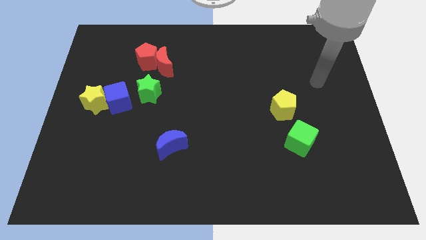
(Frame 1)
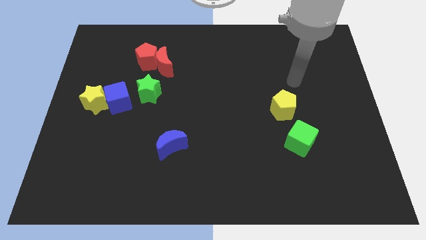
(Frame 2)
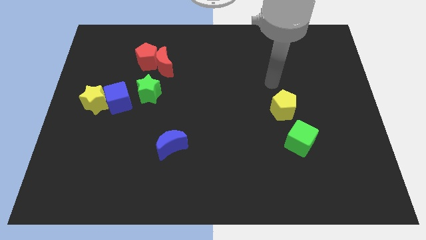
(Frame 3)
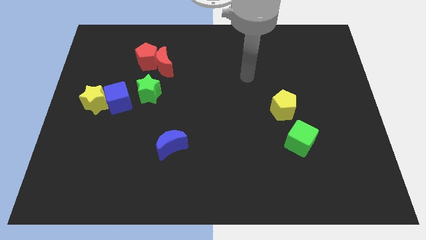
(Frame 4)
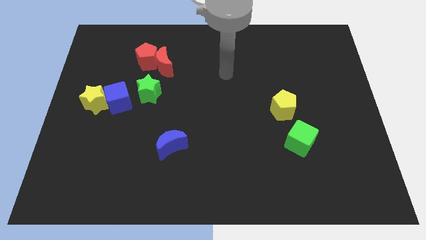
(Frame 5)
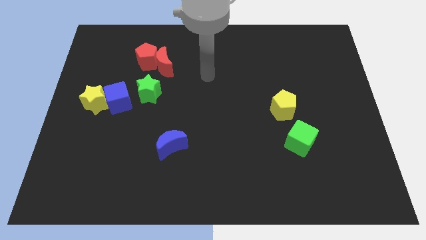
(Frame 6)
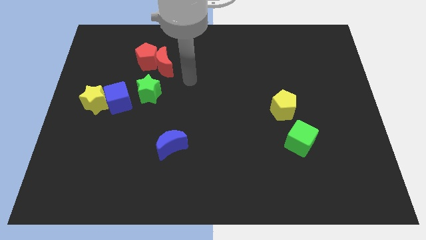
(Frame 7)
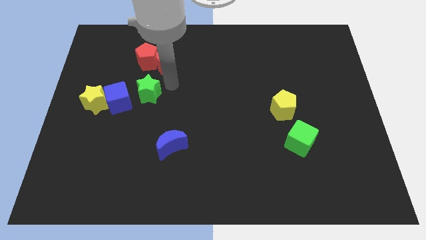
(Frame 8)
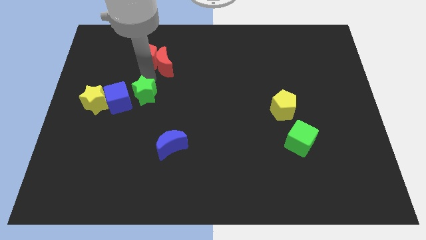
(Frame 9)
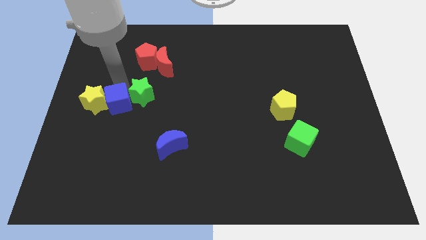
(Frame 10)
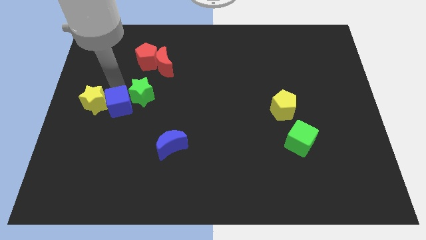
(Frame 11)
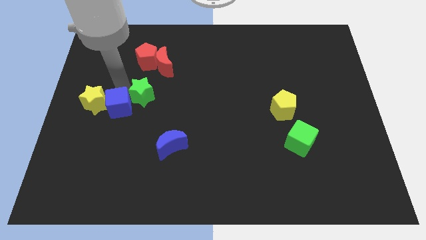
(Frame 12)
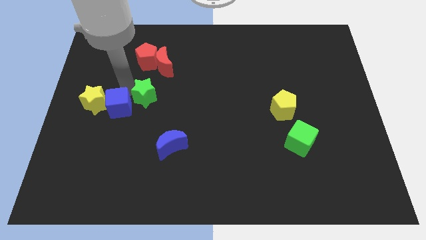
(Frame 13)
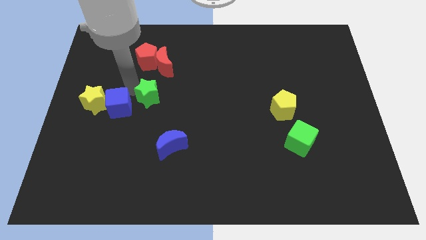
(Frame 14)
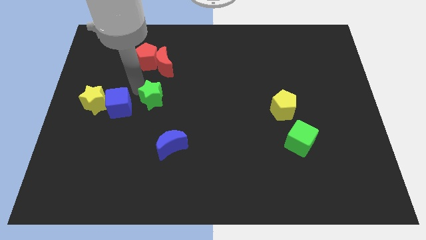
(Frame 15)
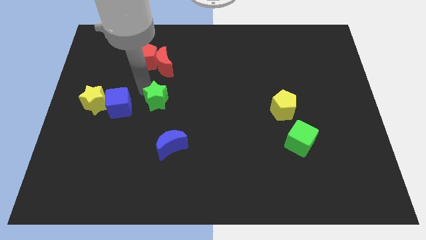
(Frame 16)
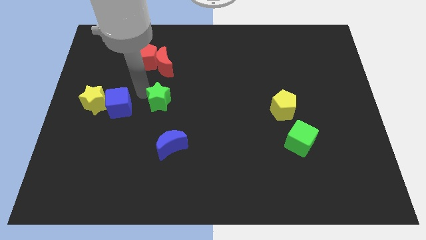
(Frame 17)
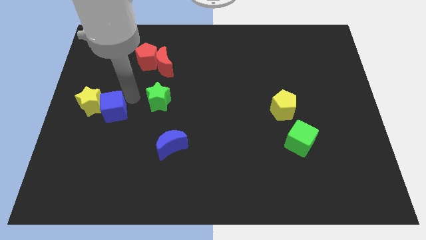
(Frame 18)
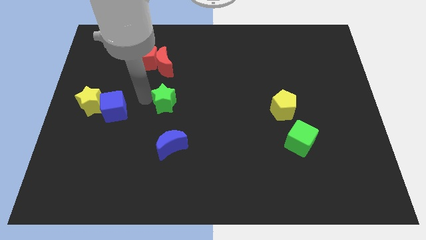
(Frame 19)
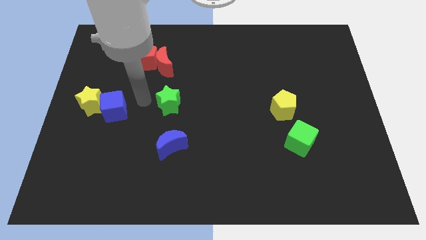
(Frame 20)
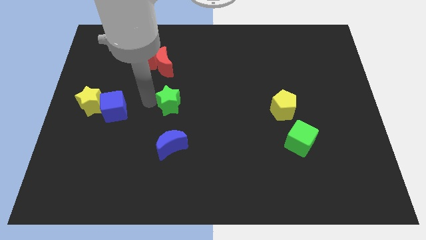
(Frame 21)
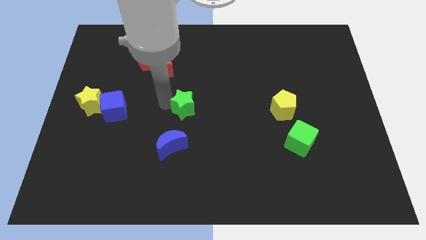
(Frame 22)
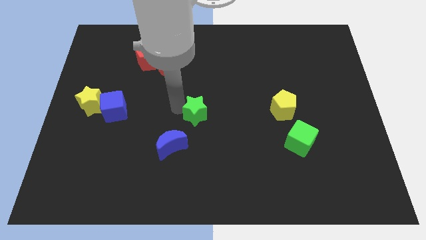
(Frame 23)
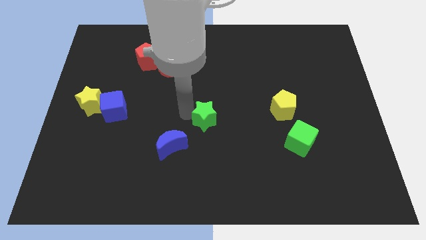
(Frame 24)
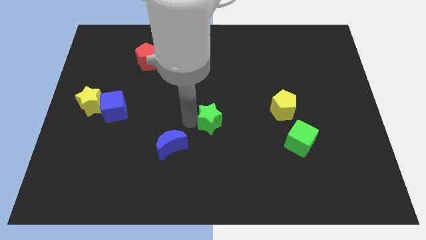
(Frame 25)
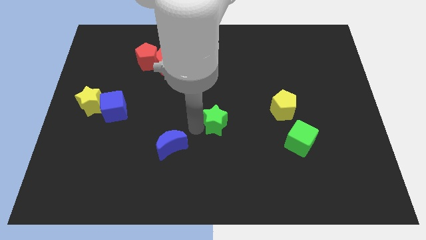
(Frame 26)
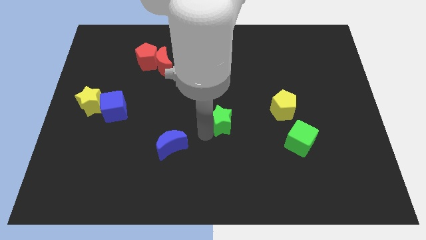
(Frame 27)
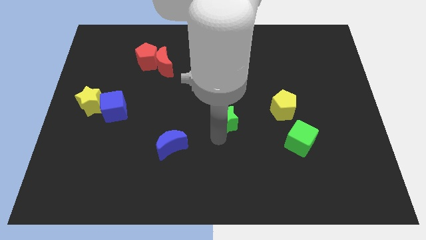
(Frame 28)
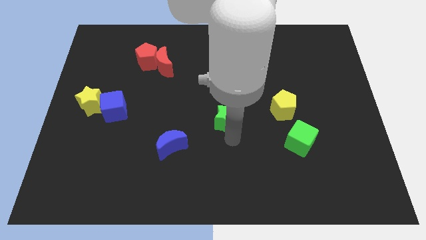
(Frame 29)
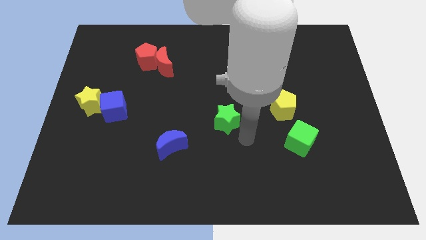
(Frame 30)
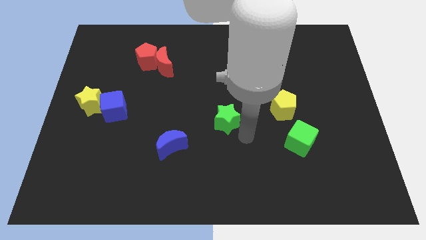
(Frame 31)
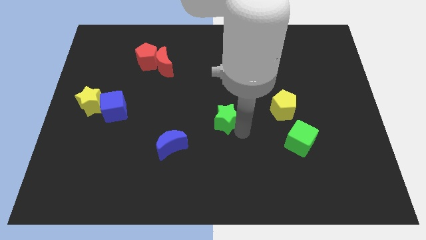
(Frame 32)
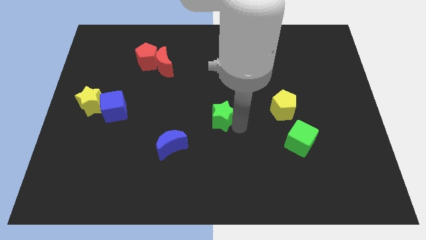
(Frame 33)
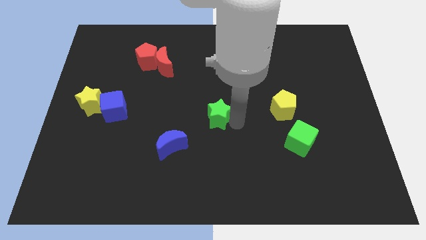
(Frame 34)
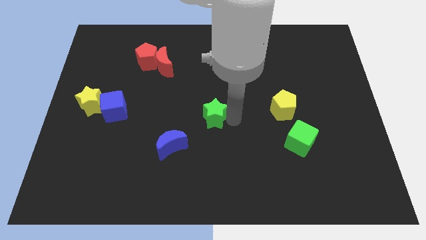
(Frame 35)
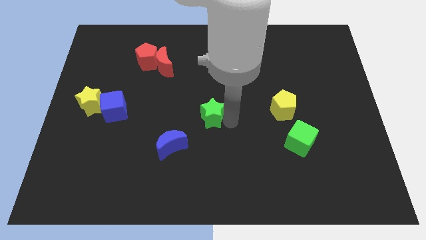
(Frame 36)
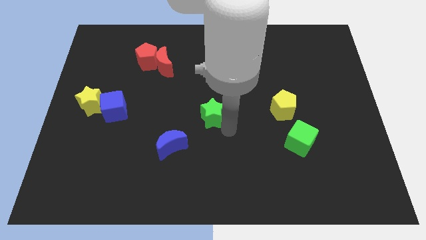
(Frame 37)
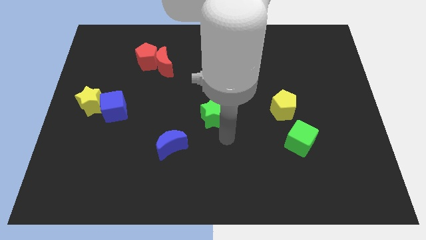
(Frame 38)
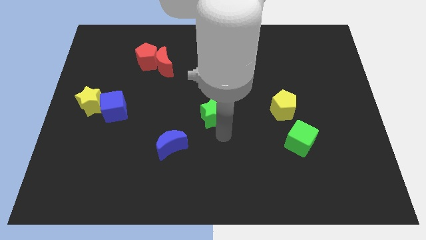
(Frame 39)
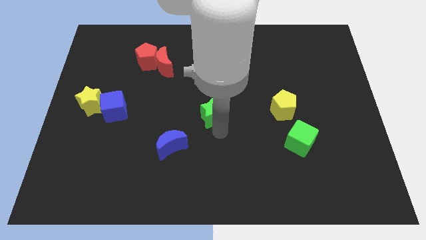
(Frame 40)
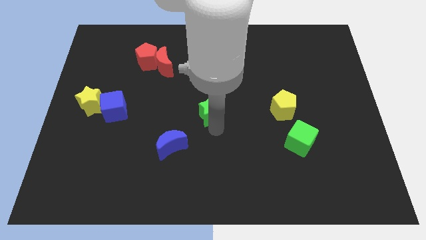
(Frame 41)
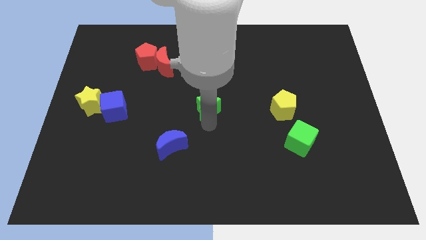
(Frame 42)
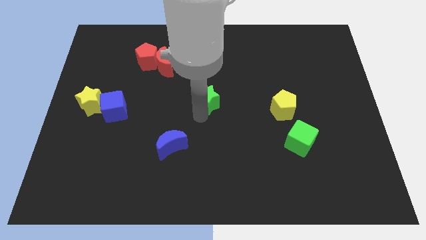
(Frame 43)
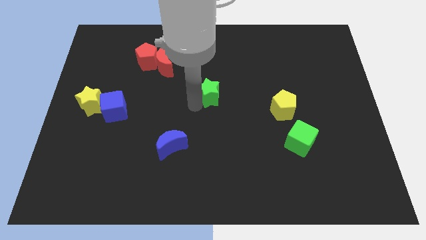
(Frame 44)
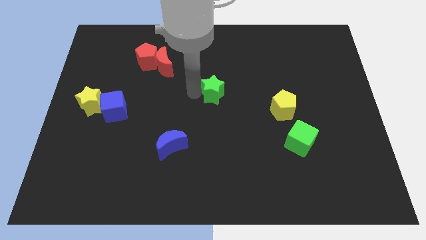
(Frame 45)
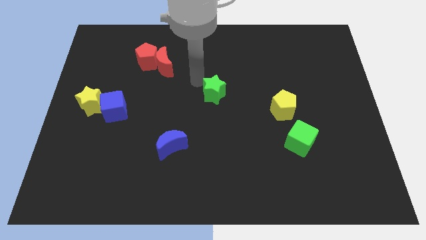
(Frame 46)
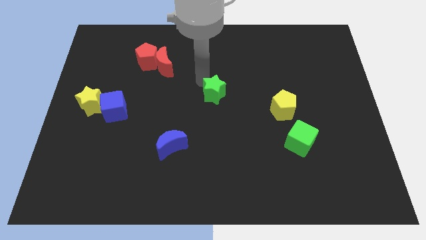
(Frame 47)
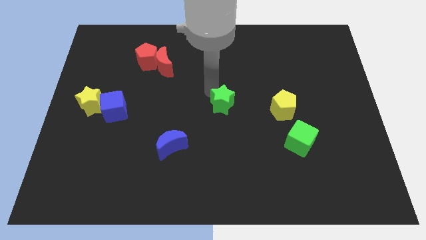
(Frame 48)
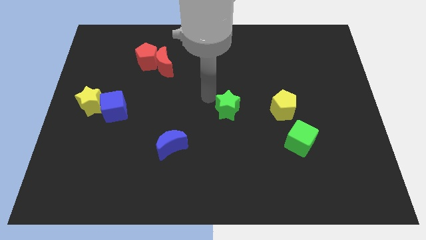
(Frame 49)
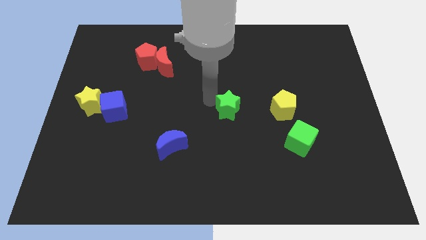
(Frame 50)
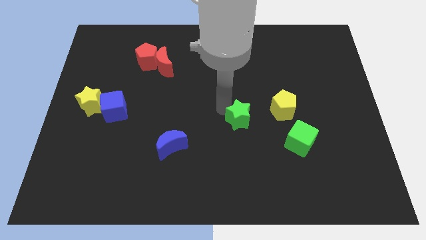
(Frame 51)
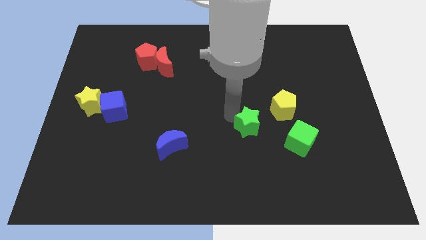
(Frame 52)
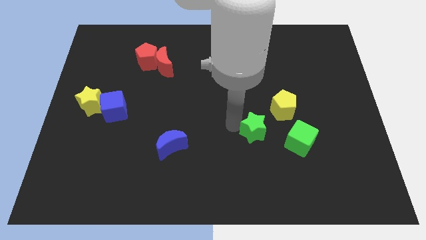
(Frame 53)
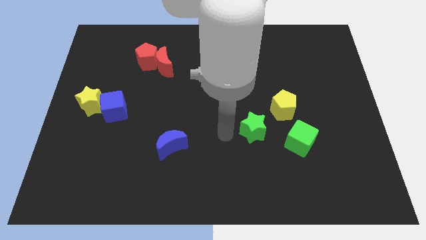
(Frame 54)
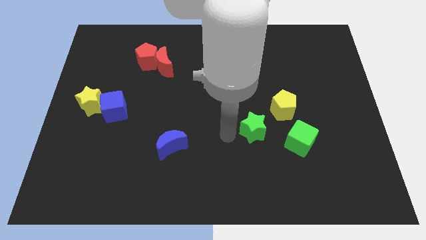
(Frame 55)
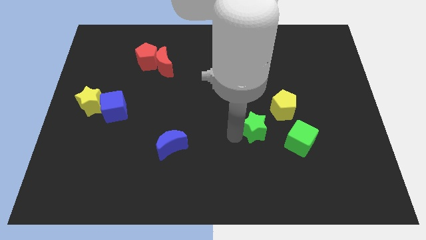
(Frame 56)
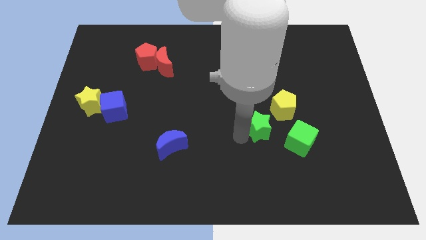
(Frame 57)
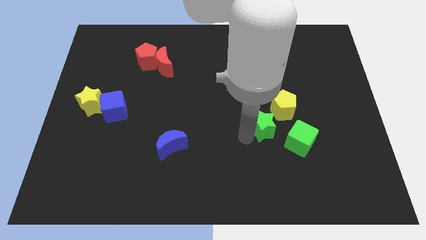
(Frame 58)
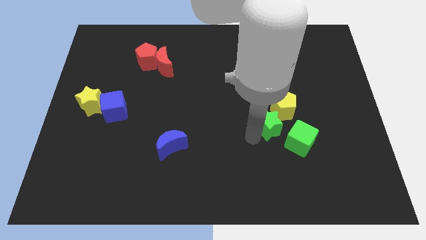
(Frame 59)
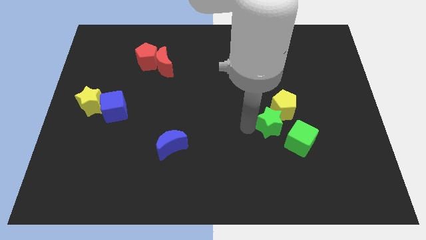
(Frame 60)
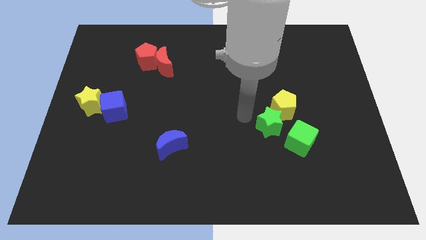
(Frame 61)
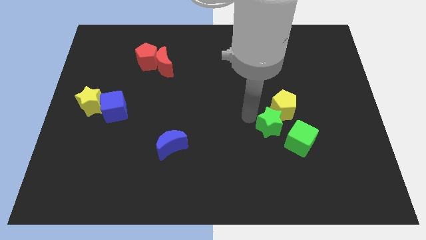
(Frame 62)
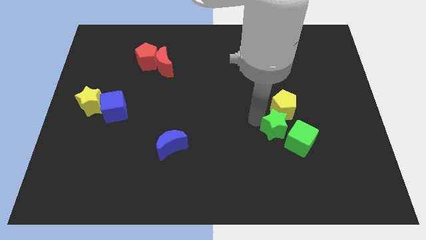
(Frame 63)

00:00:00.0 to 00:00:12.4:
push the green star next to the green cube

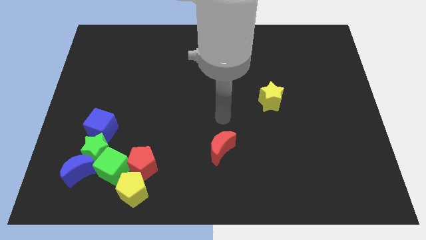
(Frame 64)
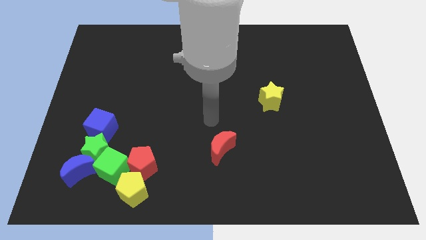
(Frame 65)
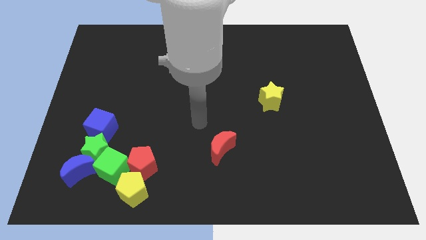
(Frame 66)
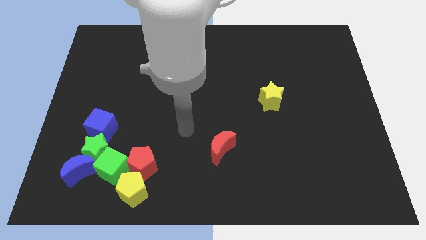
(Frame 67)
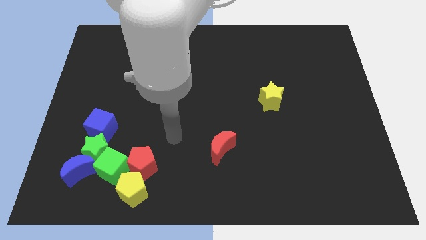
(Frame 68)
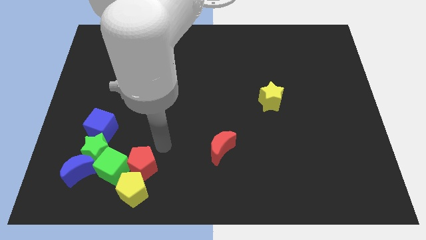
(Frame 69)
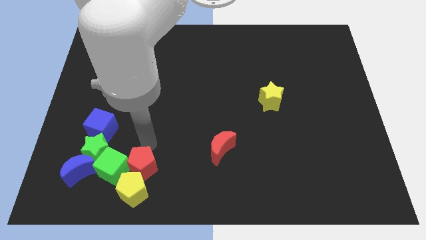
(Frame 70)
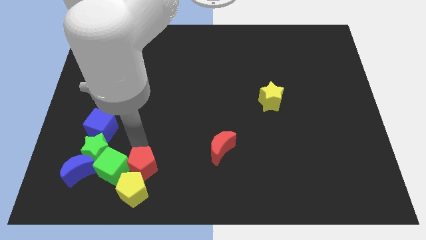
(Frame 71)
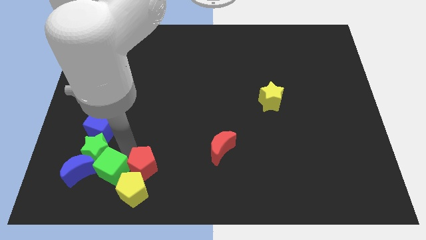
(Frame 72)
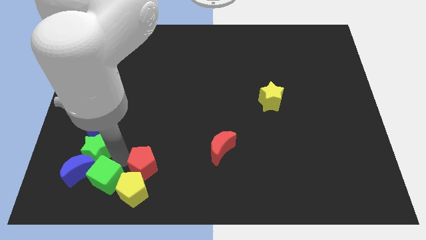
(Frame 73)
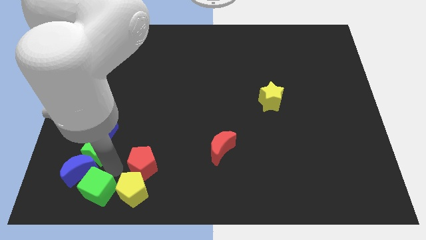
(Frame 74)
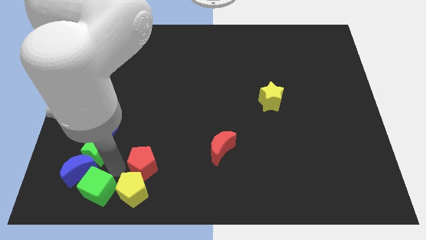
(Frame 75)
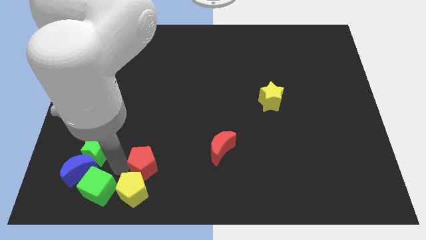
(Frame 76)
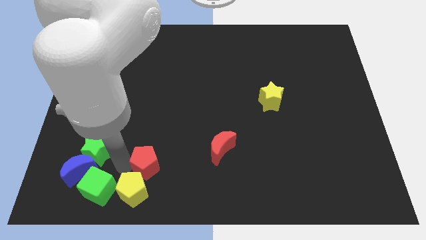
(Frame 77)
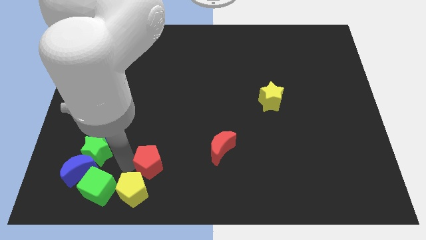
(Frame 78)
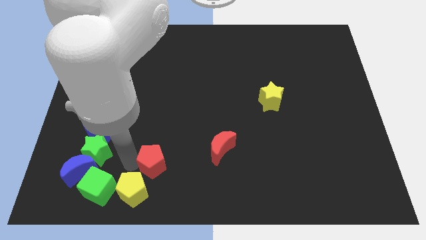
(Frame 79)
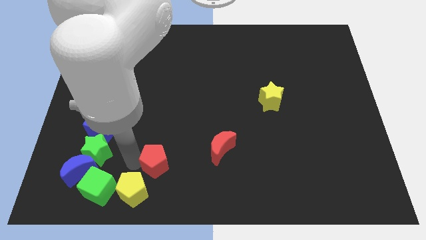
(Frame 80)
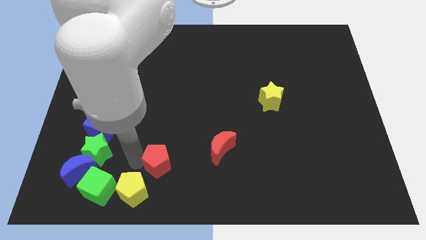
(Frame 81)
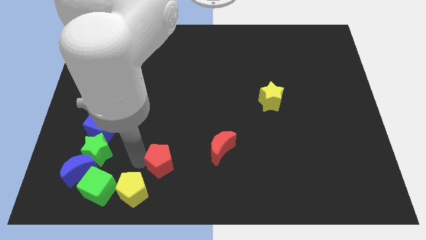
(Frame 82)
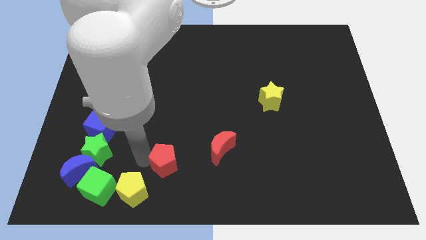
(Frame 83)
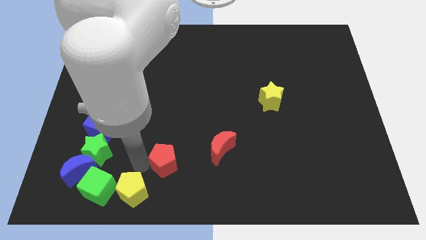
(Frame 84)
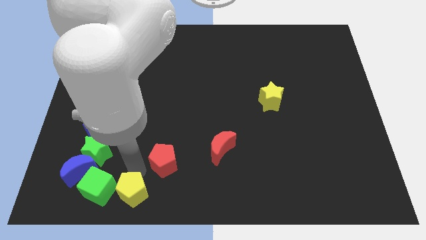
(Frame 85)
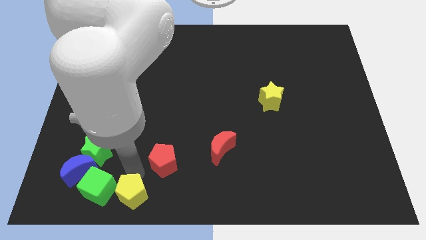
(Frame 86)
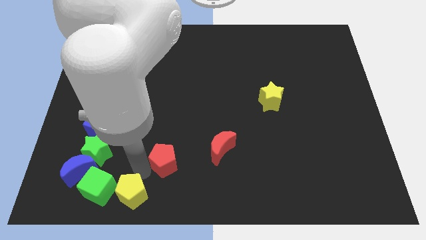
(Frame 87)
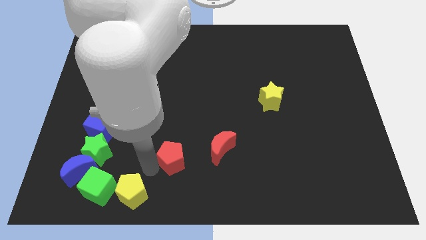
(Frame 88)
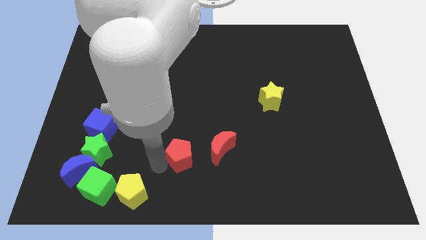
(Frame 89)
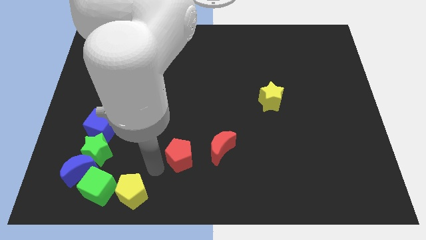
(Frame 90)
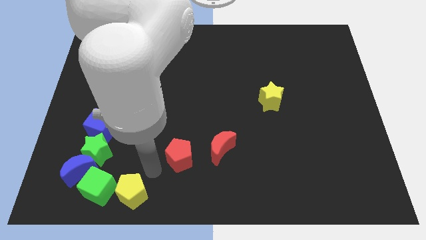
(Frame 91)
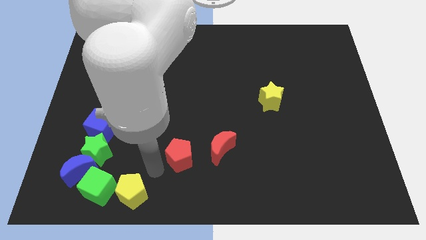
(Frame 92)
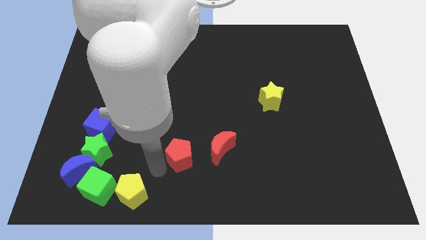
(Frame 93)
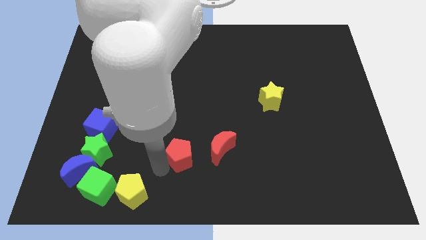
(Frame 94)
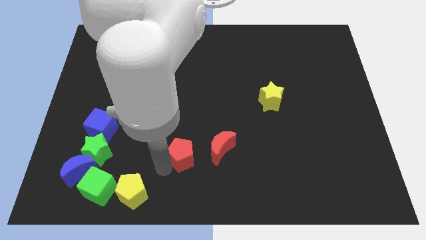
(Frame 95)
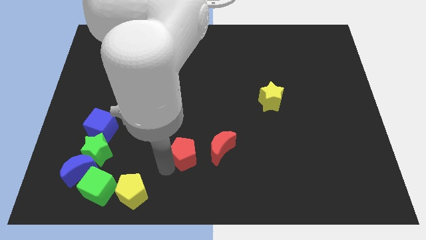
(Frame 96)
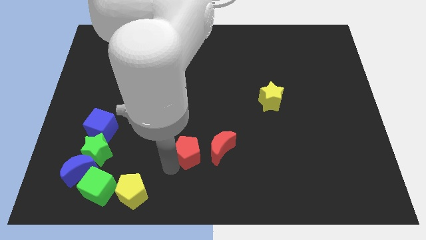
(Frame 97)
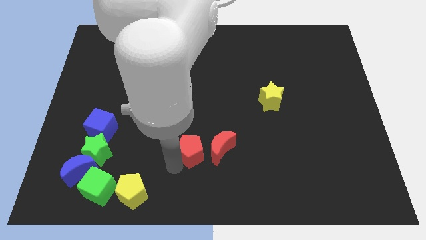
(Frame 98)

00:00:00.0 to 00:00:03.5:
put the red pentagon next to the red moon
